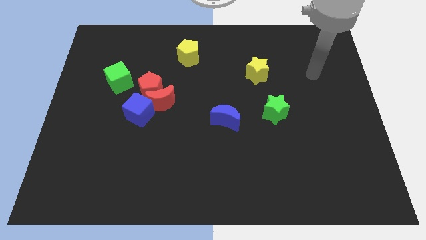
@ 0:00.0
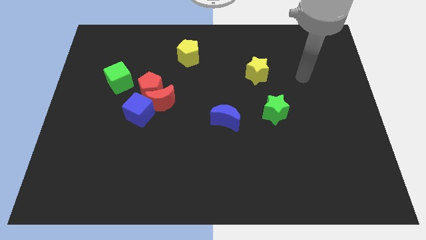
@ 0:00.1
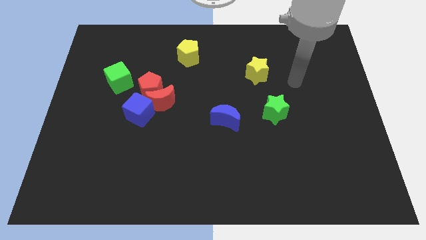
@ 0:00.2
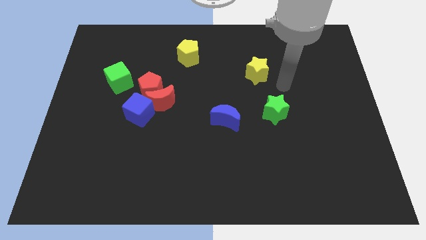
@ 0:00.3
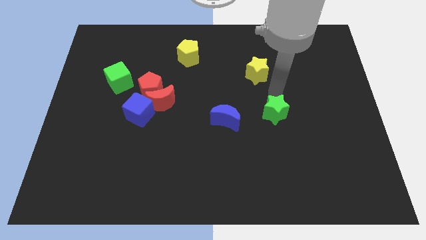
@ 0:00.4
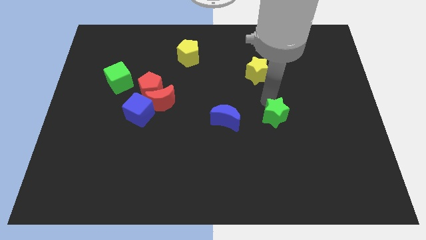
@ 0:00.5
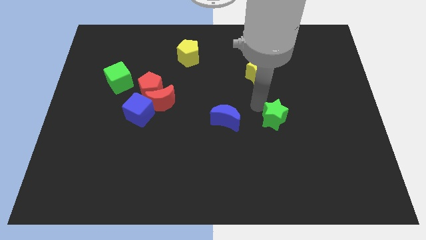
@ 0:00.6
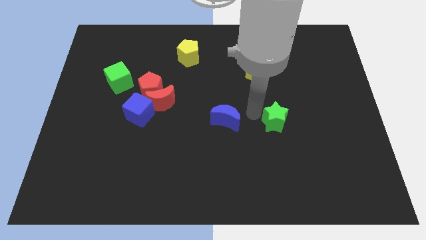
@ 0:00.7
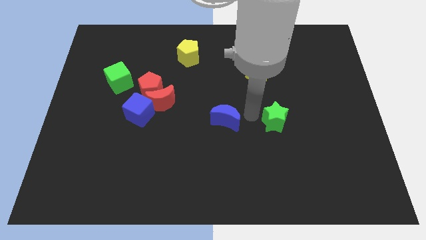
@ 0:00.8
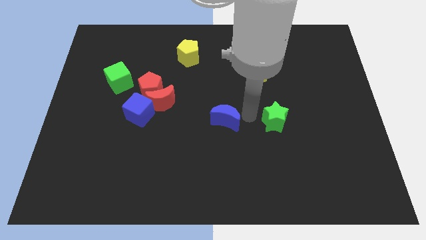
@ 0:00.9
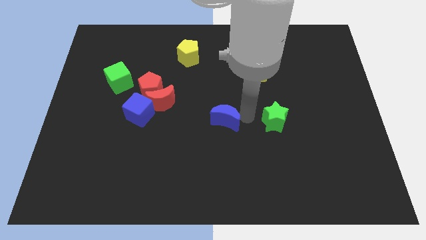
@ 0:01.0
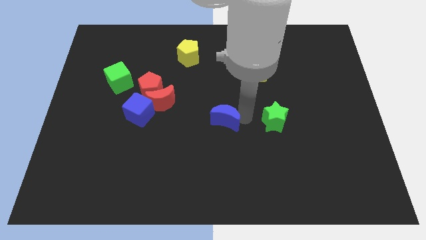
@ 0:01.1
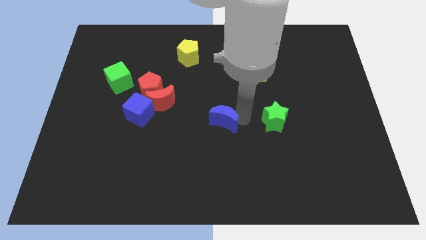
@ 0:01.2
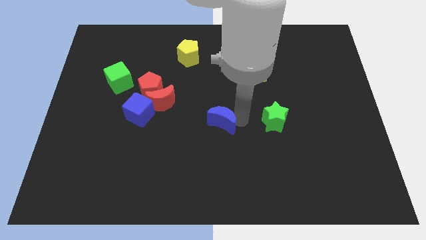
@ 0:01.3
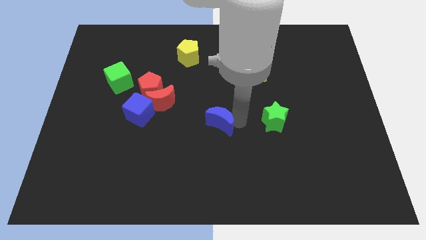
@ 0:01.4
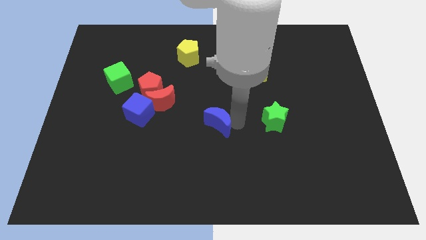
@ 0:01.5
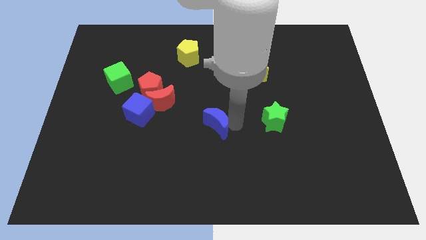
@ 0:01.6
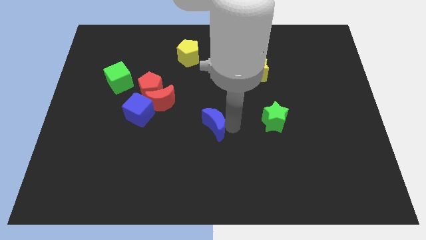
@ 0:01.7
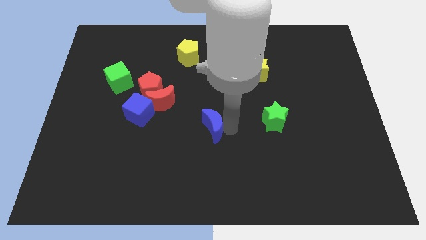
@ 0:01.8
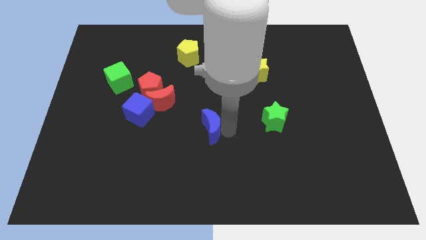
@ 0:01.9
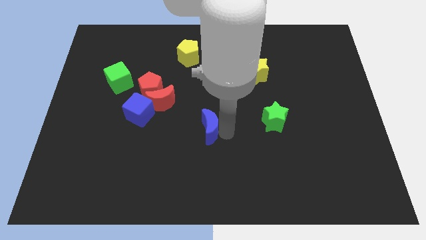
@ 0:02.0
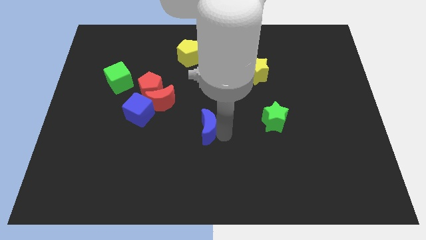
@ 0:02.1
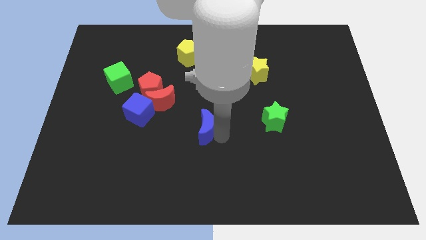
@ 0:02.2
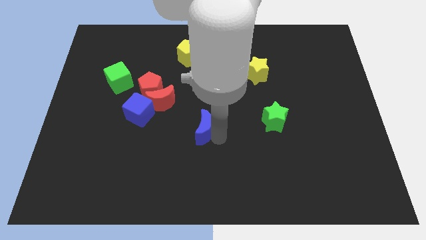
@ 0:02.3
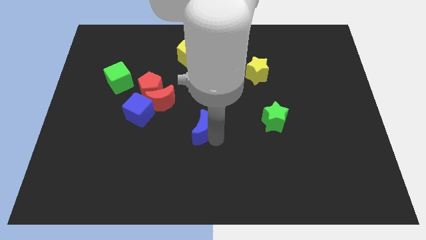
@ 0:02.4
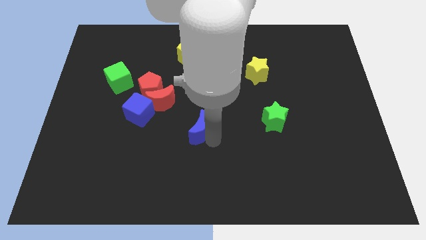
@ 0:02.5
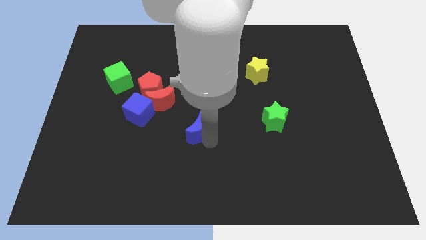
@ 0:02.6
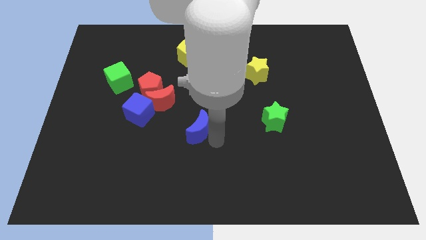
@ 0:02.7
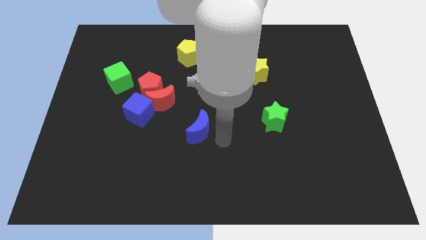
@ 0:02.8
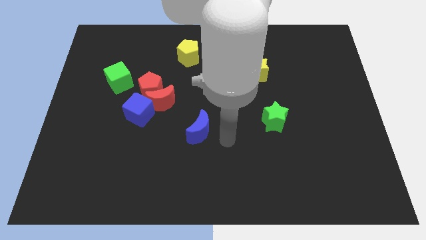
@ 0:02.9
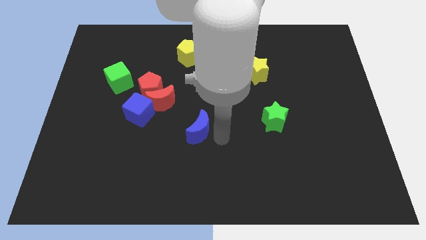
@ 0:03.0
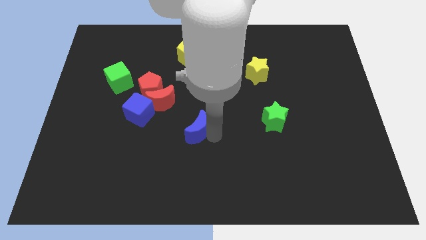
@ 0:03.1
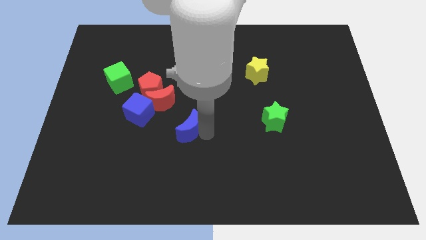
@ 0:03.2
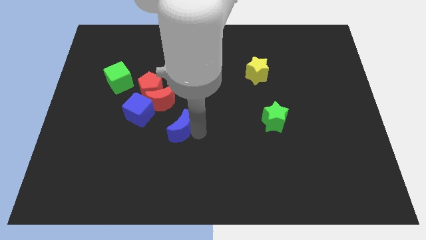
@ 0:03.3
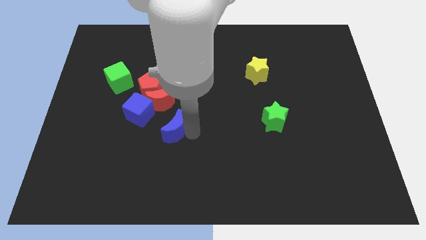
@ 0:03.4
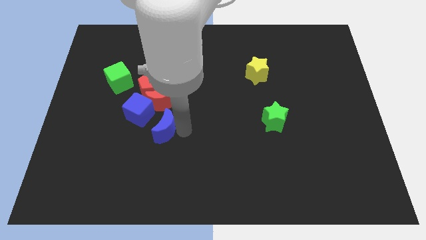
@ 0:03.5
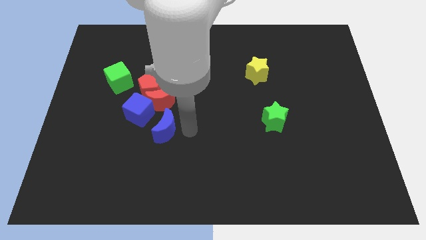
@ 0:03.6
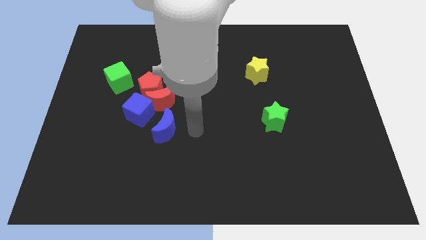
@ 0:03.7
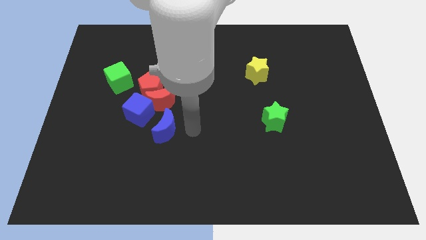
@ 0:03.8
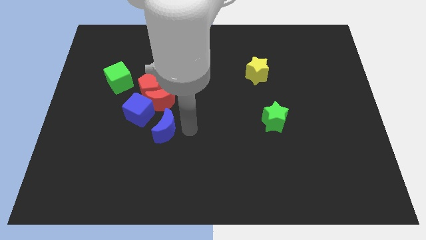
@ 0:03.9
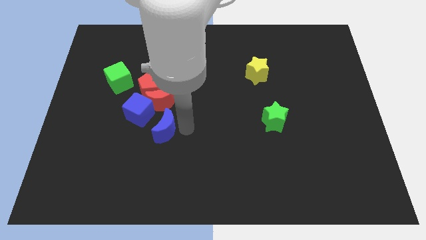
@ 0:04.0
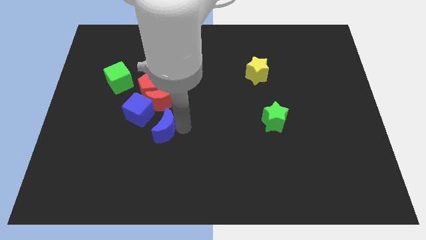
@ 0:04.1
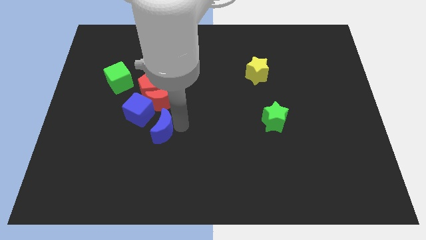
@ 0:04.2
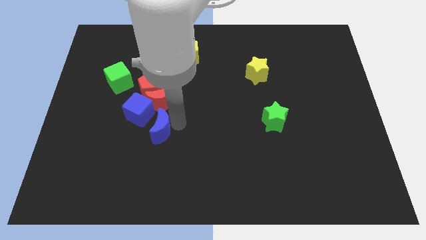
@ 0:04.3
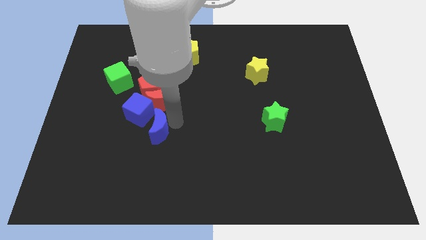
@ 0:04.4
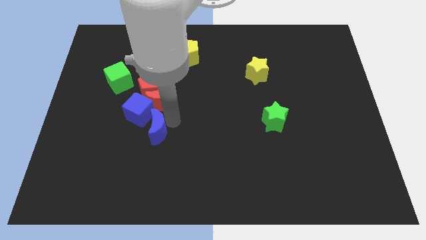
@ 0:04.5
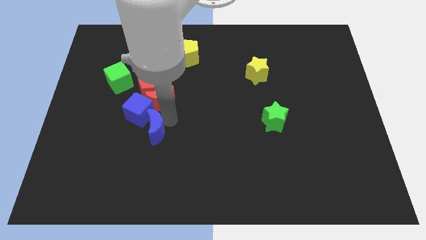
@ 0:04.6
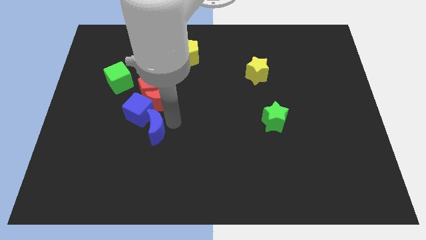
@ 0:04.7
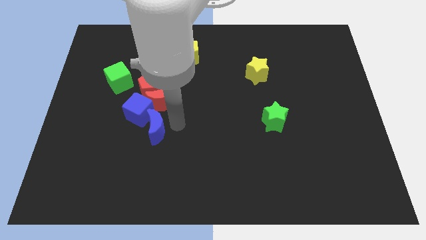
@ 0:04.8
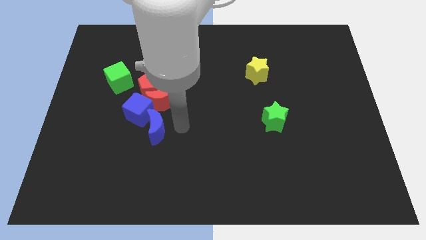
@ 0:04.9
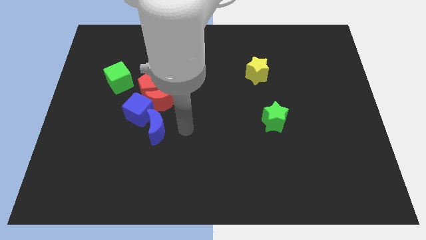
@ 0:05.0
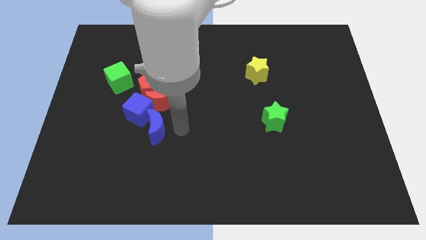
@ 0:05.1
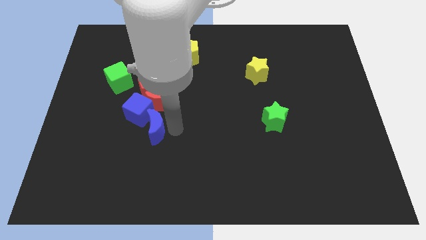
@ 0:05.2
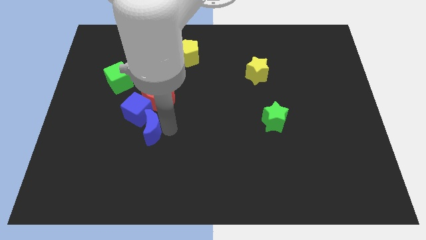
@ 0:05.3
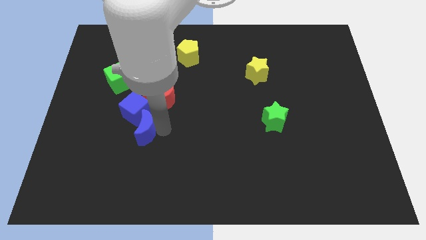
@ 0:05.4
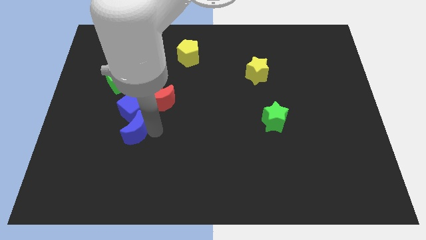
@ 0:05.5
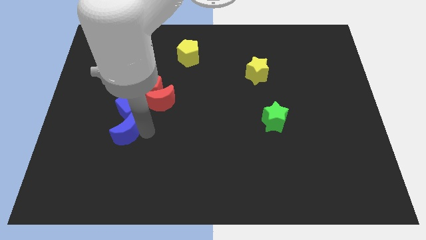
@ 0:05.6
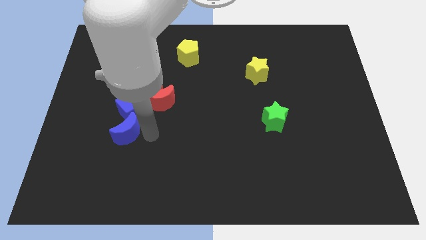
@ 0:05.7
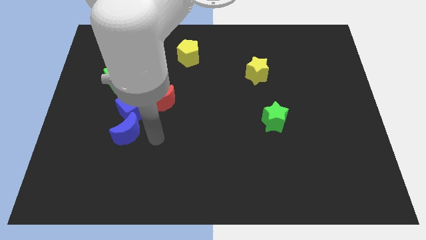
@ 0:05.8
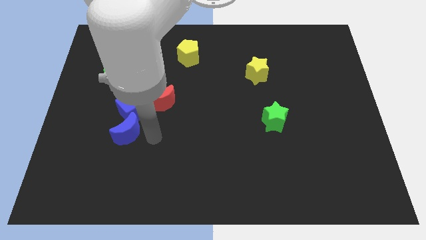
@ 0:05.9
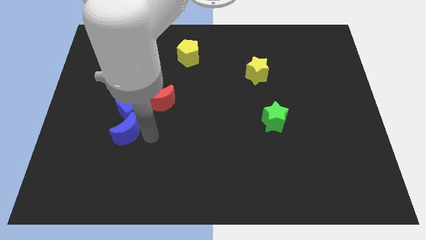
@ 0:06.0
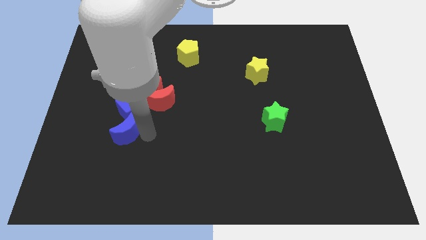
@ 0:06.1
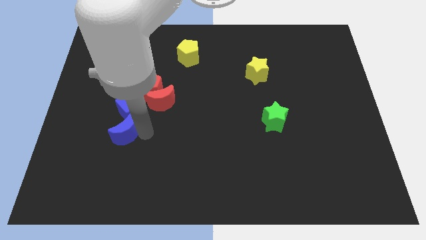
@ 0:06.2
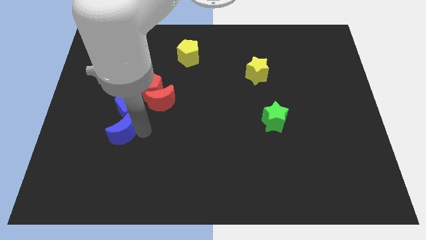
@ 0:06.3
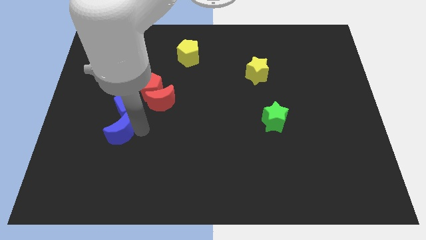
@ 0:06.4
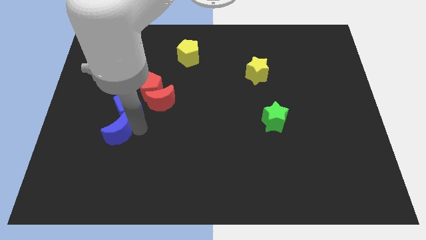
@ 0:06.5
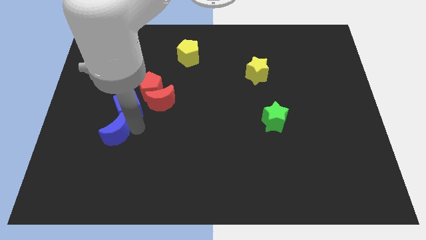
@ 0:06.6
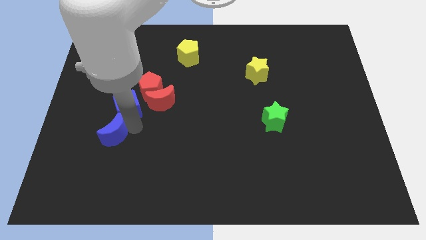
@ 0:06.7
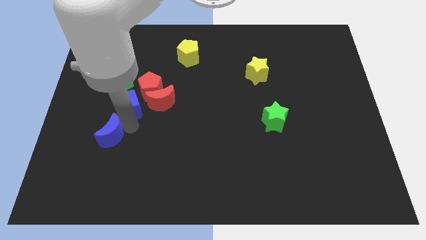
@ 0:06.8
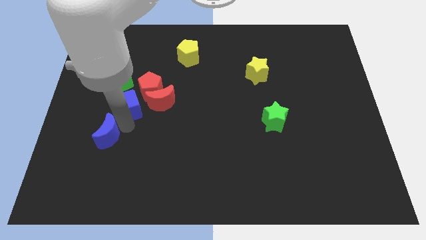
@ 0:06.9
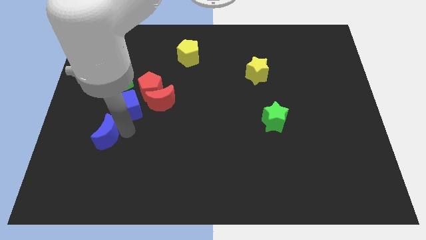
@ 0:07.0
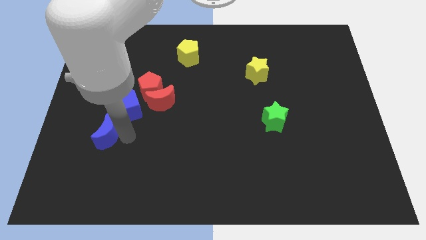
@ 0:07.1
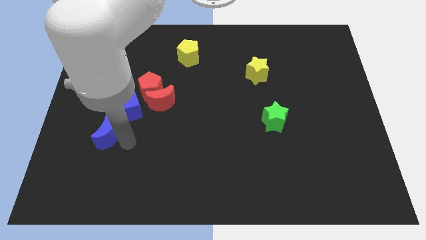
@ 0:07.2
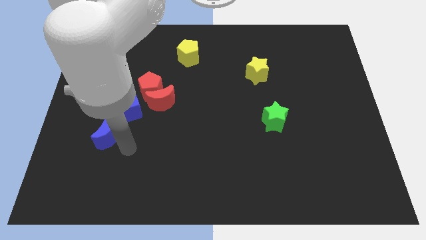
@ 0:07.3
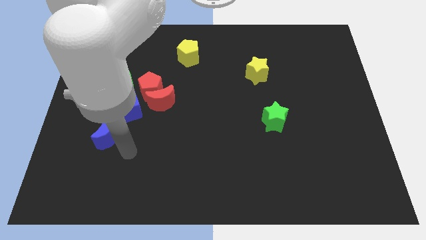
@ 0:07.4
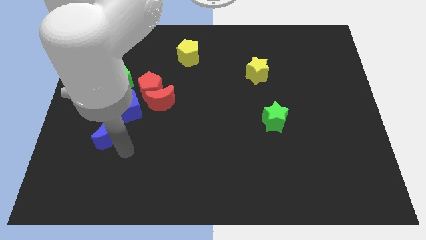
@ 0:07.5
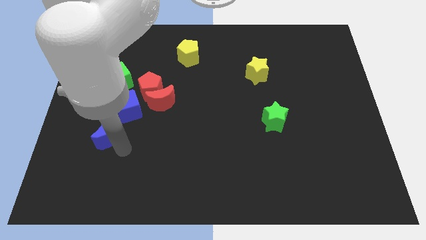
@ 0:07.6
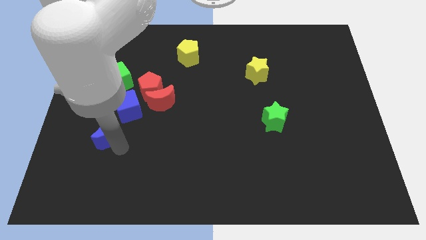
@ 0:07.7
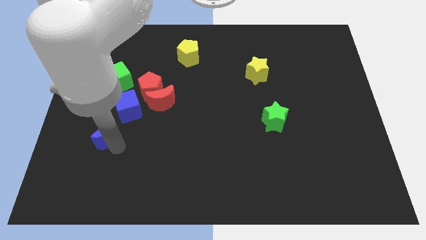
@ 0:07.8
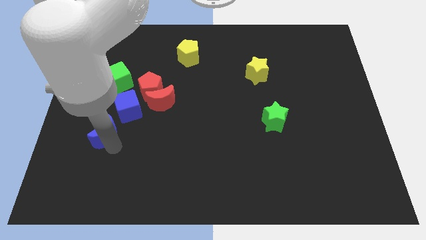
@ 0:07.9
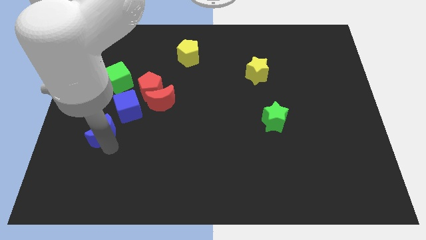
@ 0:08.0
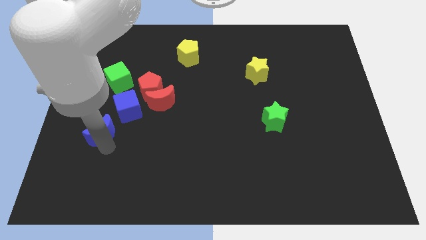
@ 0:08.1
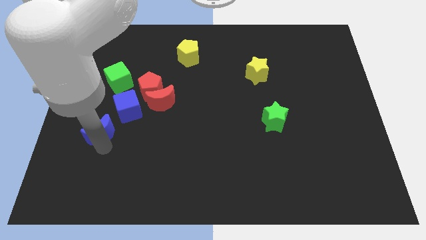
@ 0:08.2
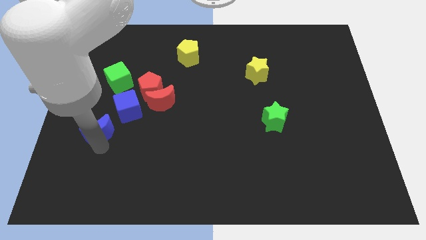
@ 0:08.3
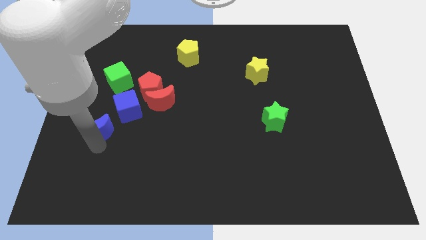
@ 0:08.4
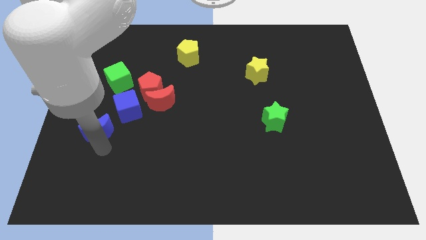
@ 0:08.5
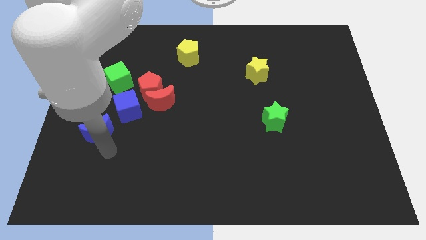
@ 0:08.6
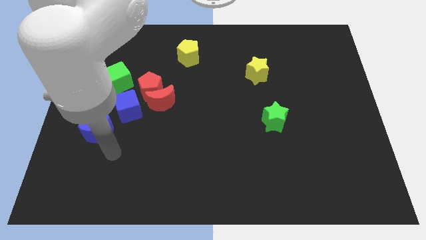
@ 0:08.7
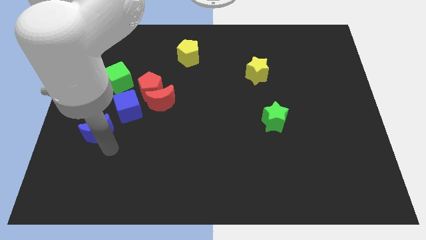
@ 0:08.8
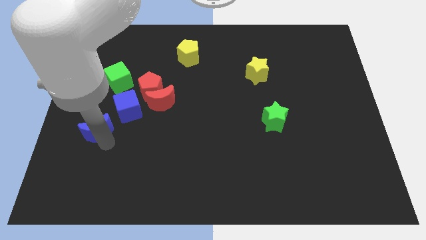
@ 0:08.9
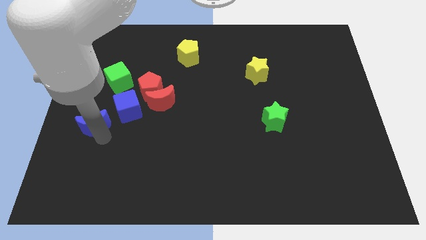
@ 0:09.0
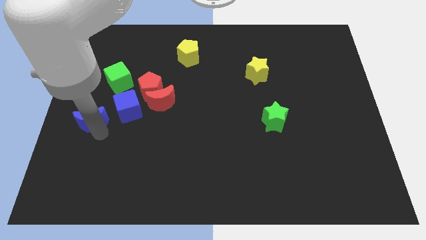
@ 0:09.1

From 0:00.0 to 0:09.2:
put the blue moon to the left side
